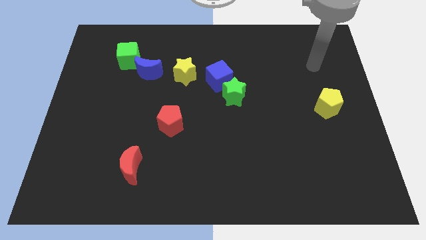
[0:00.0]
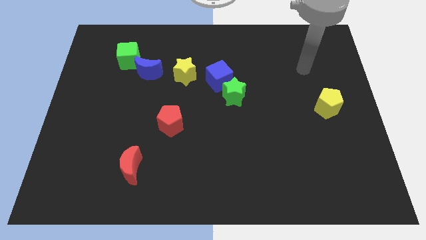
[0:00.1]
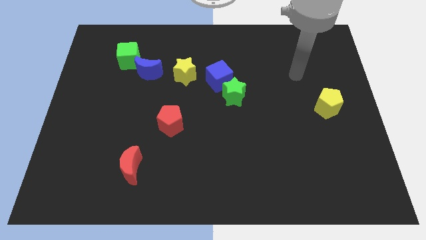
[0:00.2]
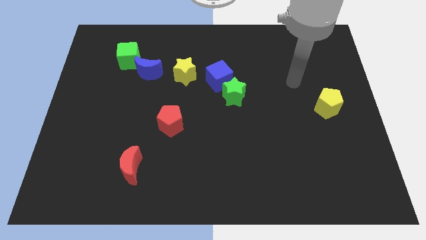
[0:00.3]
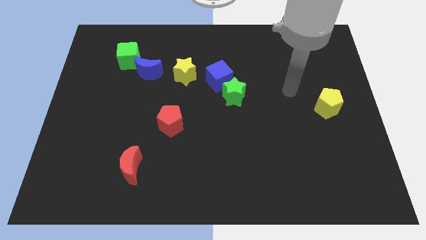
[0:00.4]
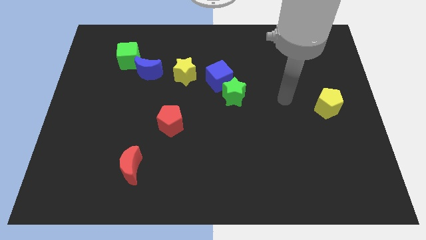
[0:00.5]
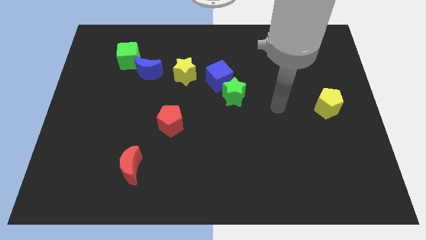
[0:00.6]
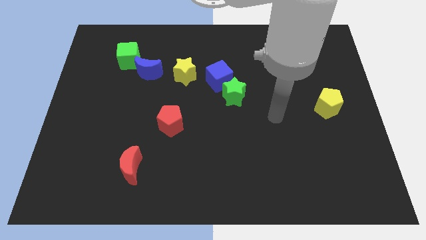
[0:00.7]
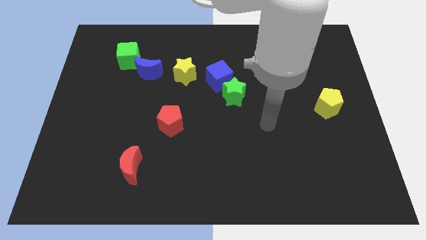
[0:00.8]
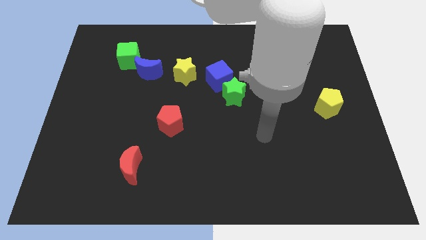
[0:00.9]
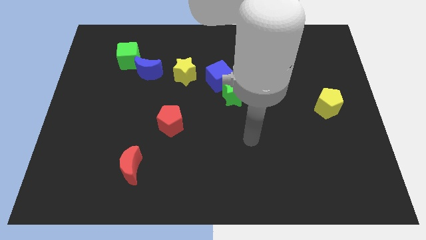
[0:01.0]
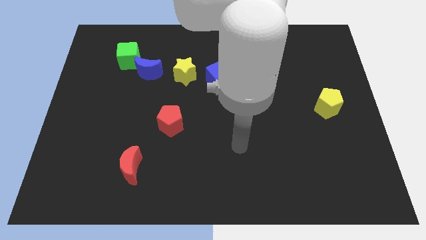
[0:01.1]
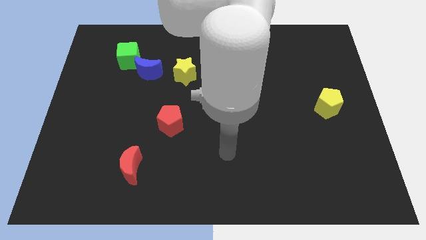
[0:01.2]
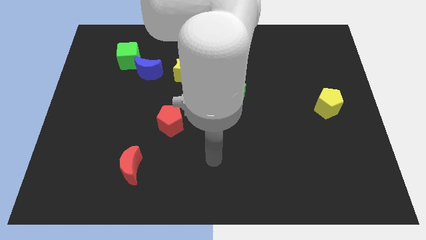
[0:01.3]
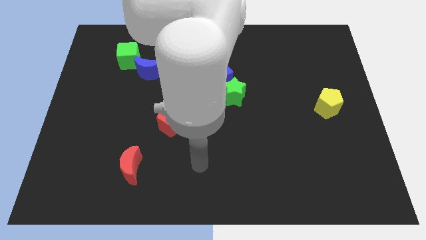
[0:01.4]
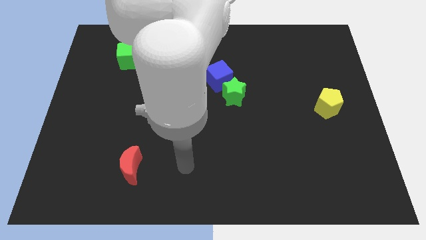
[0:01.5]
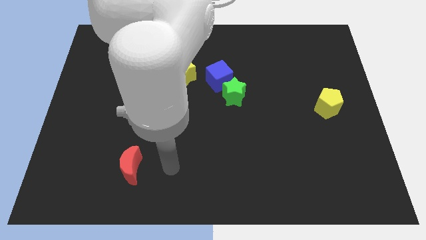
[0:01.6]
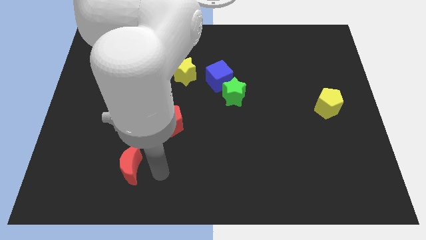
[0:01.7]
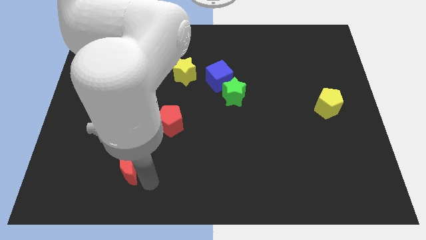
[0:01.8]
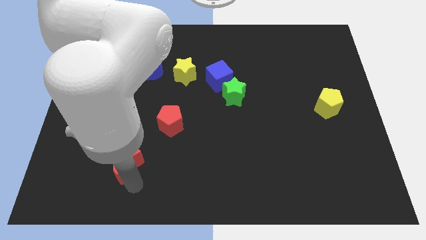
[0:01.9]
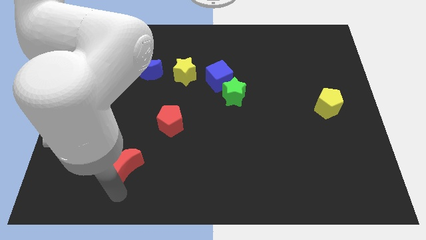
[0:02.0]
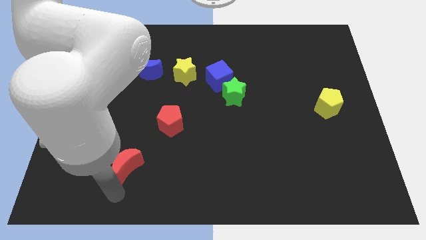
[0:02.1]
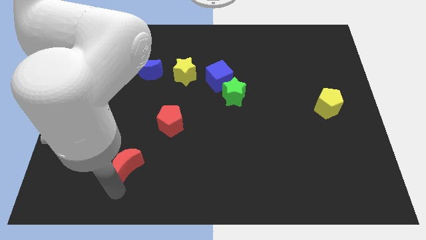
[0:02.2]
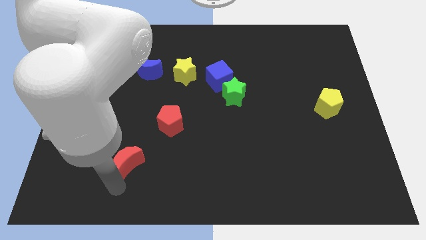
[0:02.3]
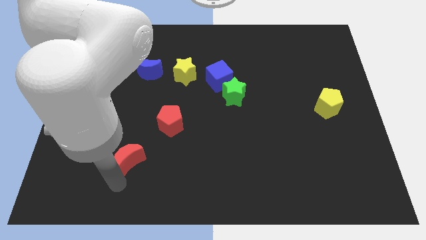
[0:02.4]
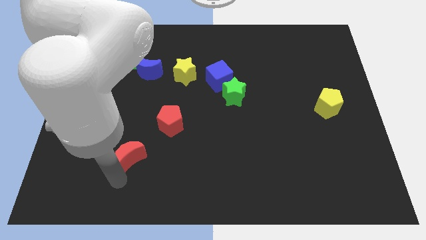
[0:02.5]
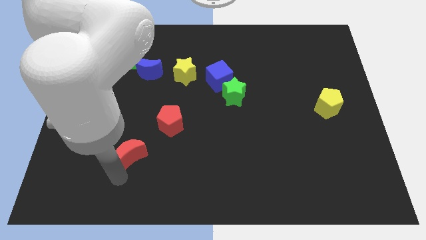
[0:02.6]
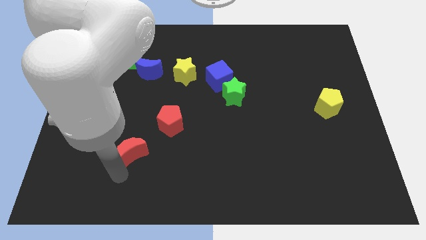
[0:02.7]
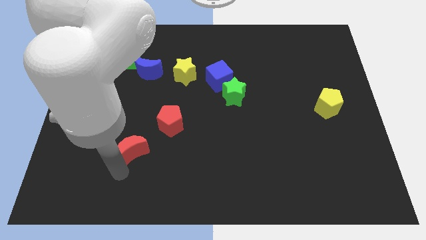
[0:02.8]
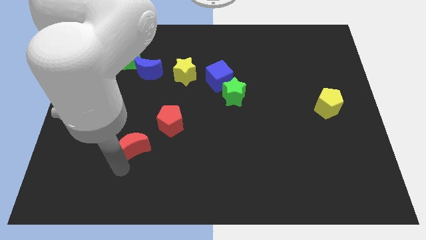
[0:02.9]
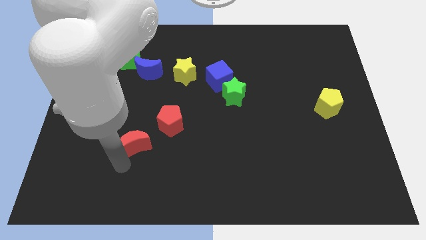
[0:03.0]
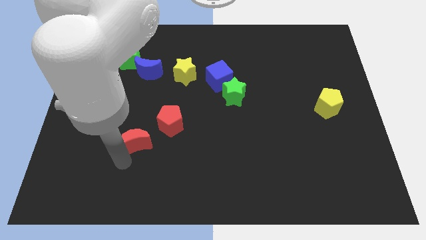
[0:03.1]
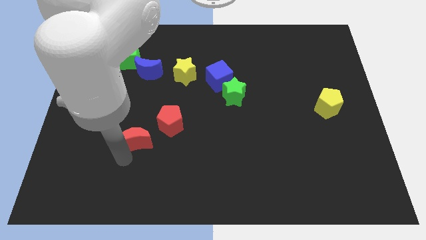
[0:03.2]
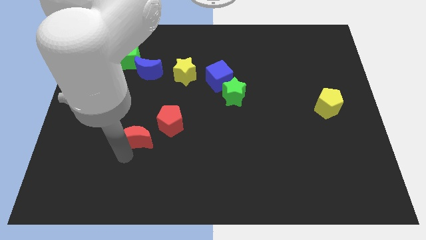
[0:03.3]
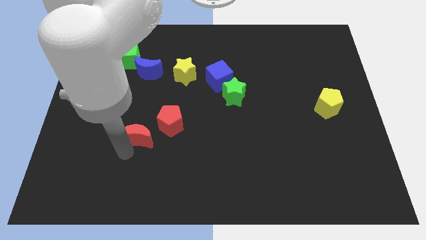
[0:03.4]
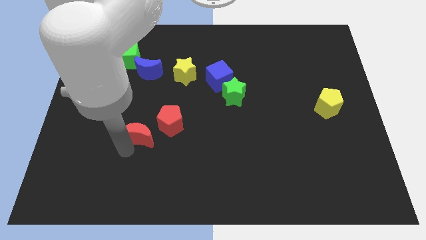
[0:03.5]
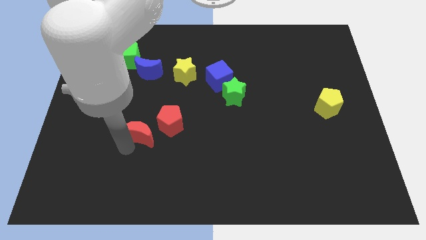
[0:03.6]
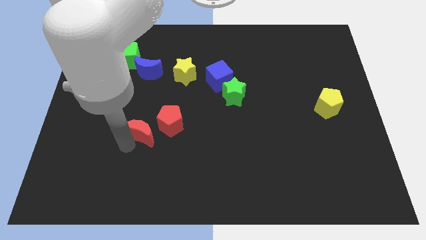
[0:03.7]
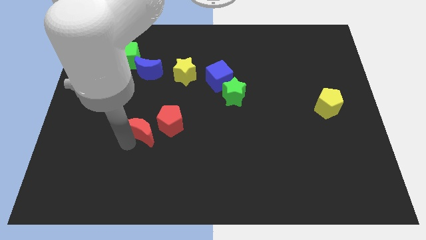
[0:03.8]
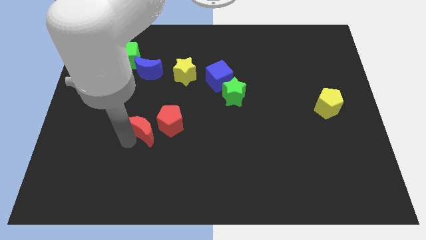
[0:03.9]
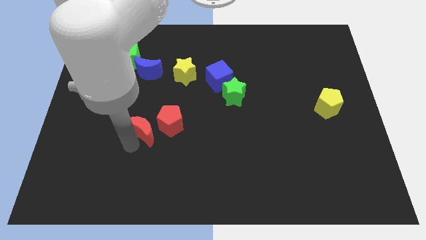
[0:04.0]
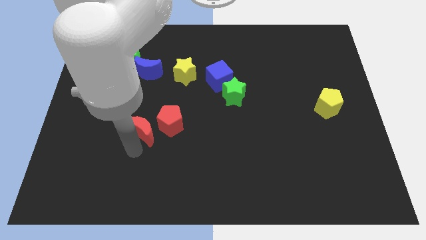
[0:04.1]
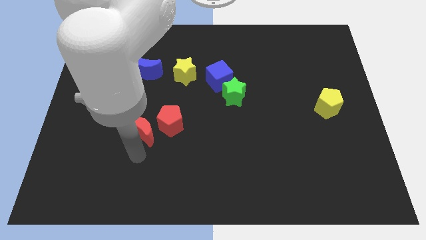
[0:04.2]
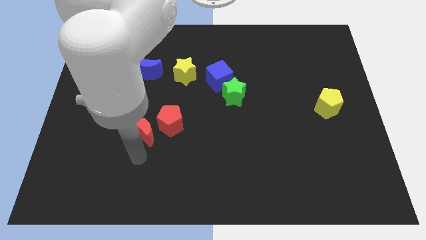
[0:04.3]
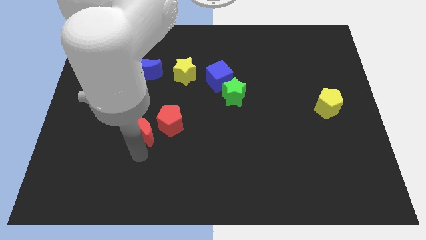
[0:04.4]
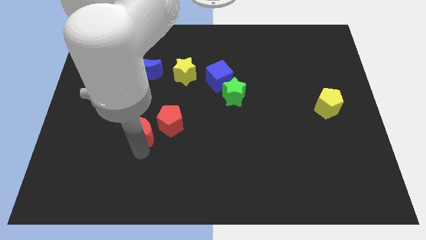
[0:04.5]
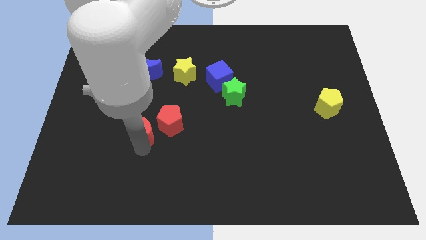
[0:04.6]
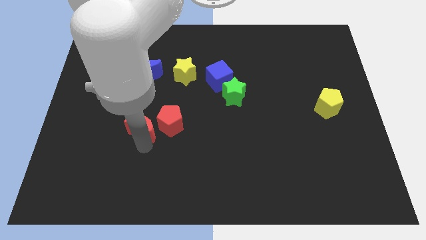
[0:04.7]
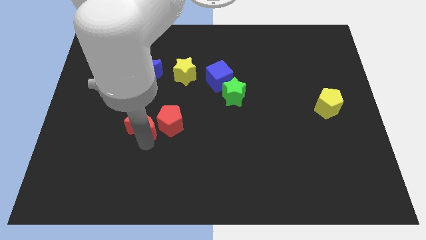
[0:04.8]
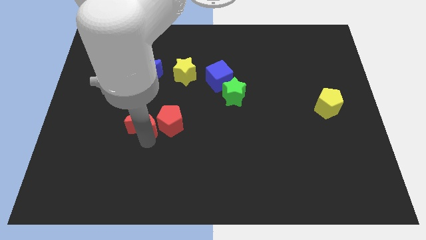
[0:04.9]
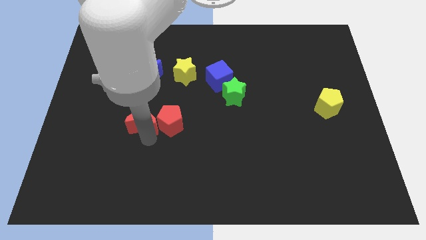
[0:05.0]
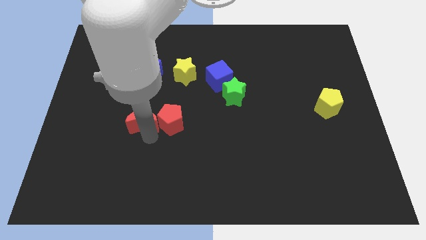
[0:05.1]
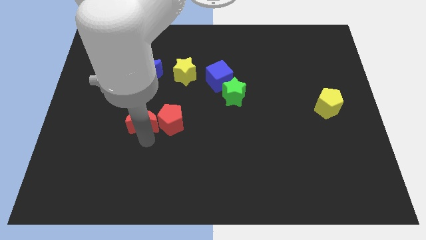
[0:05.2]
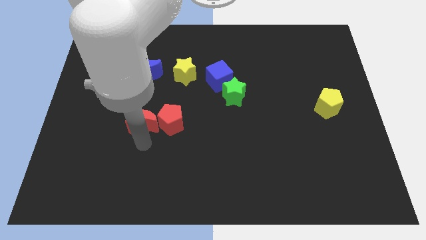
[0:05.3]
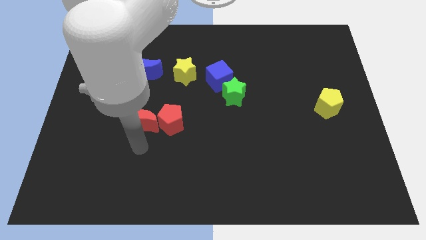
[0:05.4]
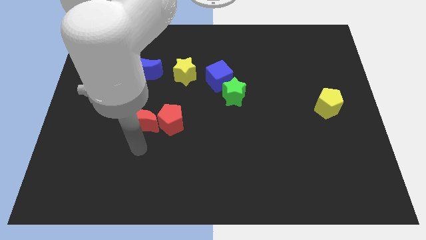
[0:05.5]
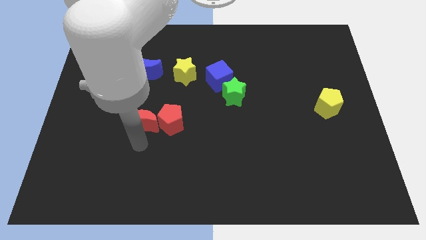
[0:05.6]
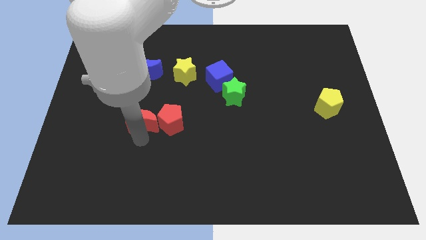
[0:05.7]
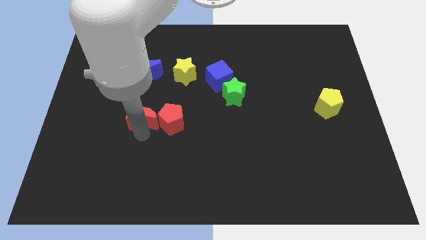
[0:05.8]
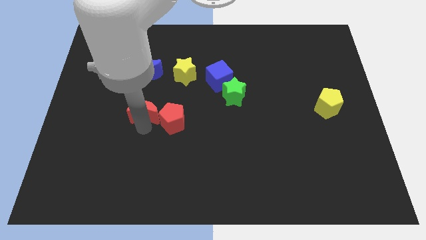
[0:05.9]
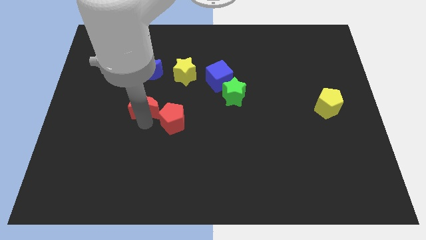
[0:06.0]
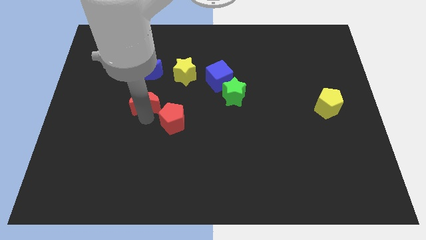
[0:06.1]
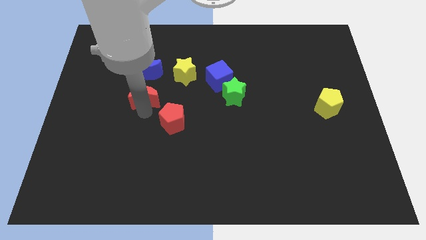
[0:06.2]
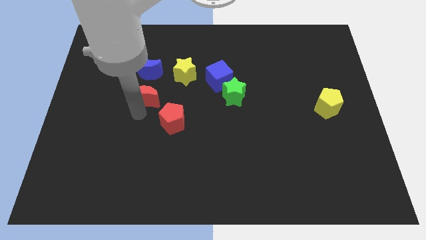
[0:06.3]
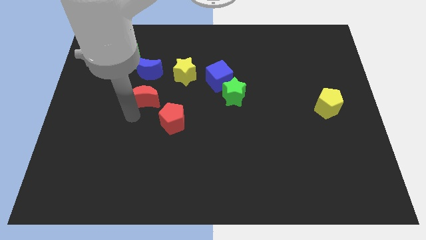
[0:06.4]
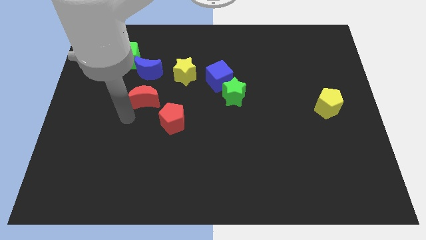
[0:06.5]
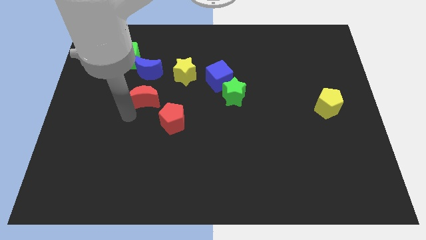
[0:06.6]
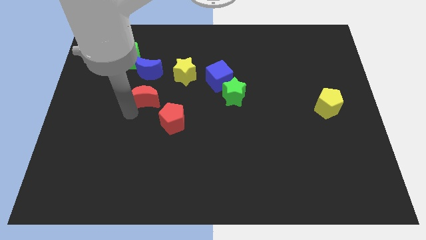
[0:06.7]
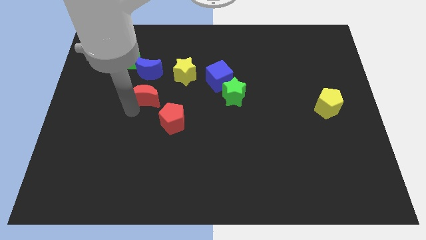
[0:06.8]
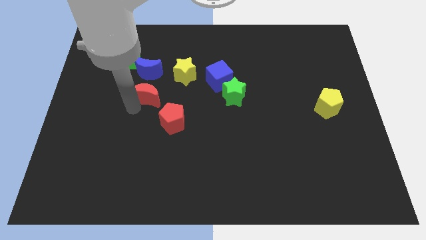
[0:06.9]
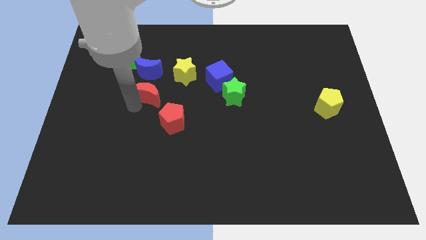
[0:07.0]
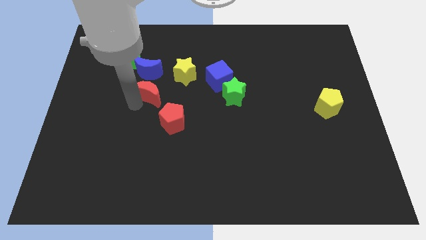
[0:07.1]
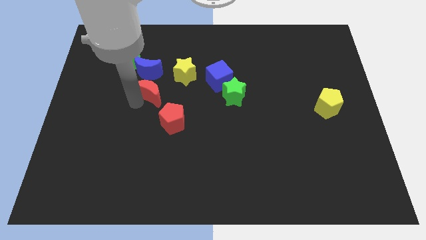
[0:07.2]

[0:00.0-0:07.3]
slide the red moon up

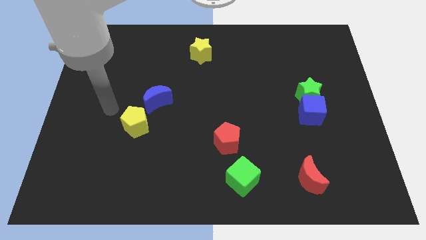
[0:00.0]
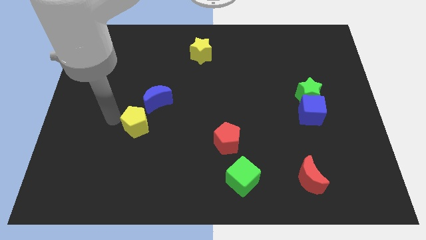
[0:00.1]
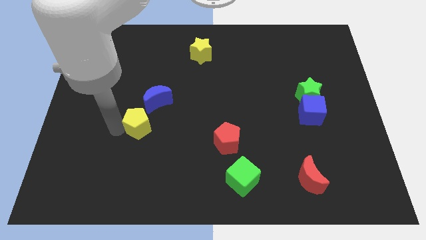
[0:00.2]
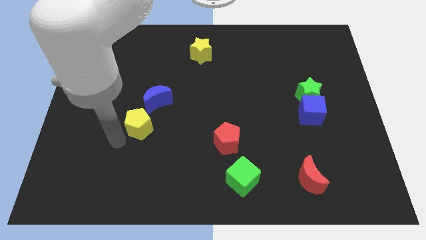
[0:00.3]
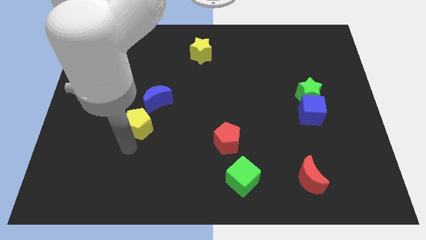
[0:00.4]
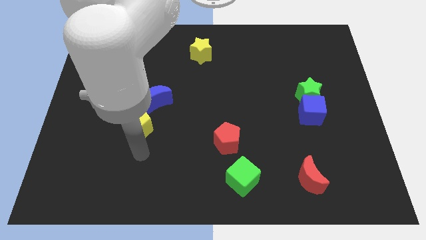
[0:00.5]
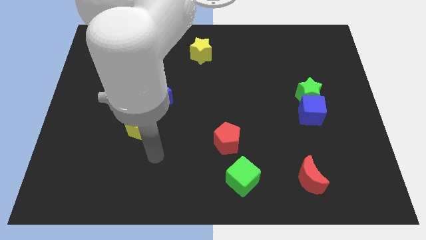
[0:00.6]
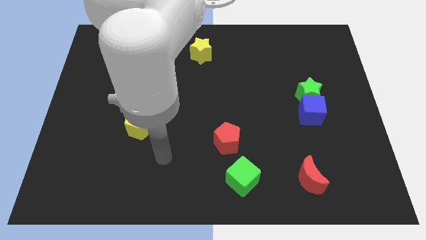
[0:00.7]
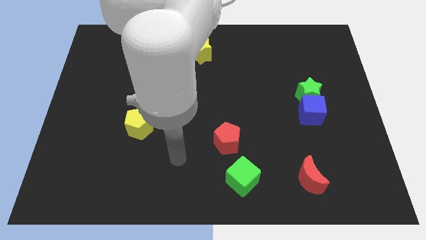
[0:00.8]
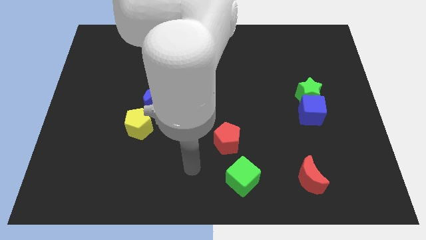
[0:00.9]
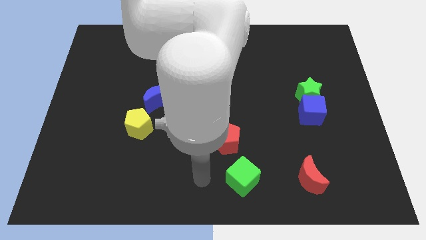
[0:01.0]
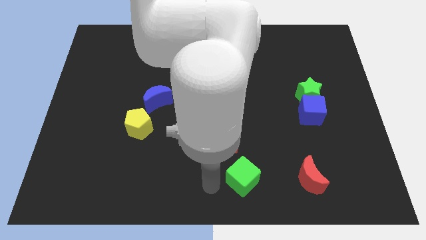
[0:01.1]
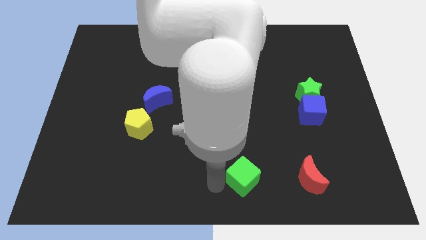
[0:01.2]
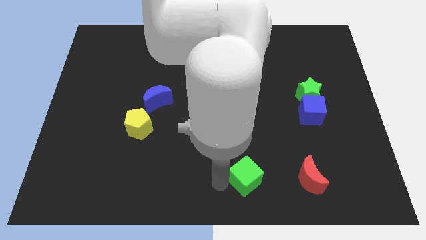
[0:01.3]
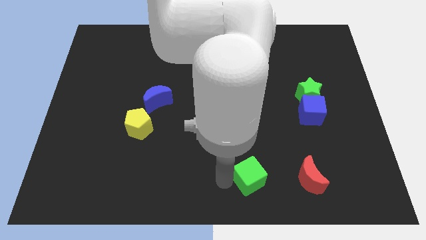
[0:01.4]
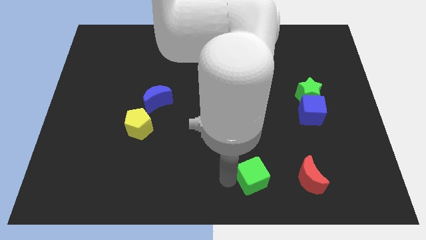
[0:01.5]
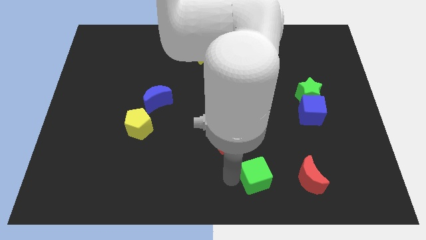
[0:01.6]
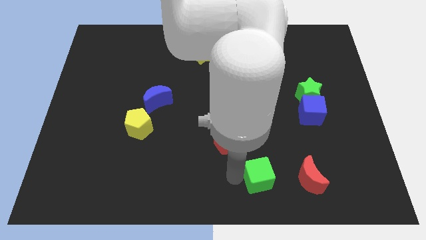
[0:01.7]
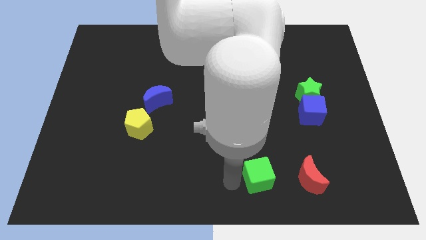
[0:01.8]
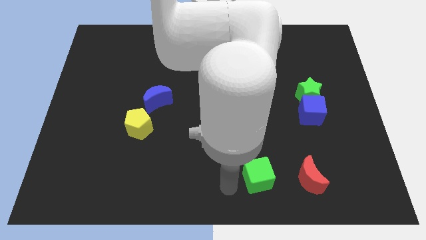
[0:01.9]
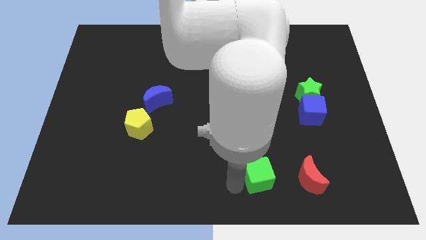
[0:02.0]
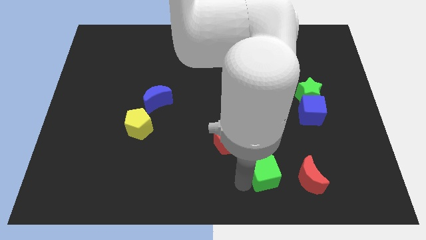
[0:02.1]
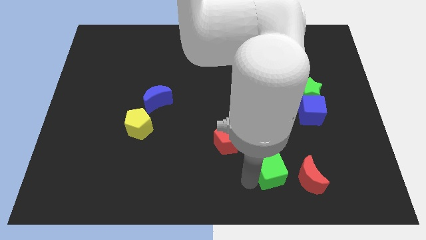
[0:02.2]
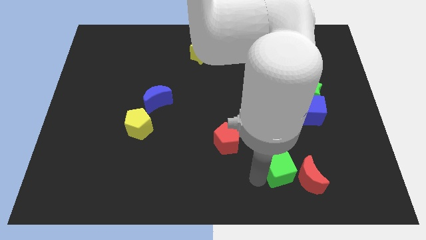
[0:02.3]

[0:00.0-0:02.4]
move the green cube right somewhat
